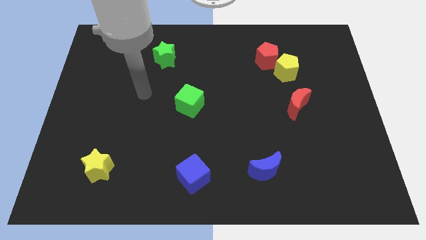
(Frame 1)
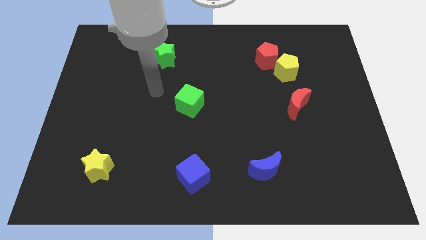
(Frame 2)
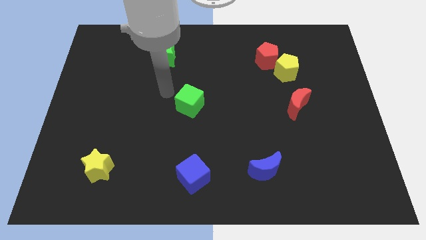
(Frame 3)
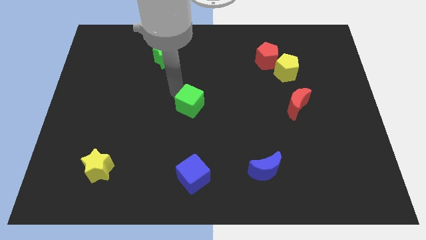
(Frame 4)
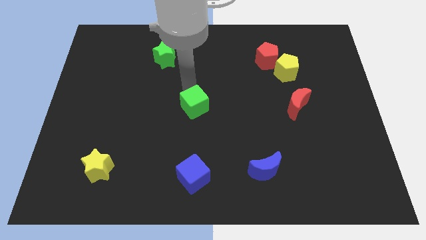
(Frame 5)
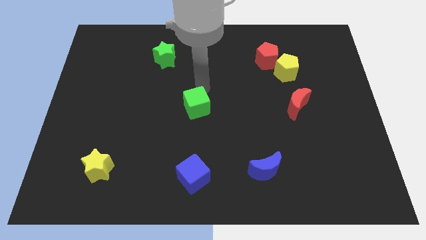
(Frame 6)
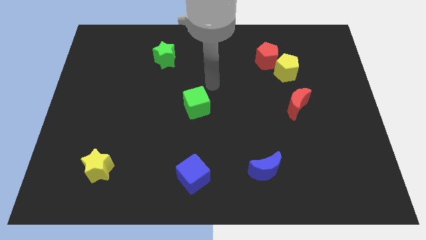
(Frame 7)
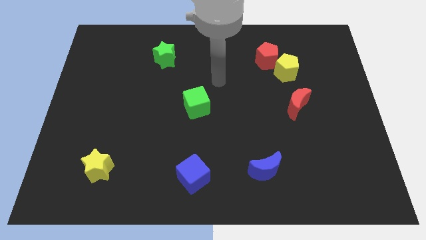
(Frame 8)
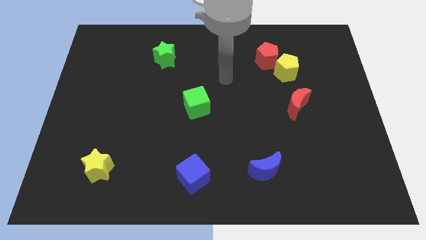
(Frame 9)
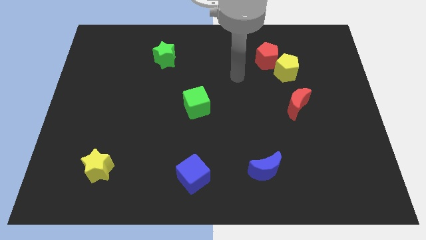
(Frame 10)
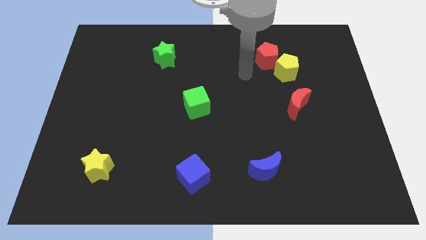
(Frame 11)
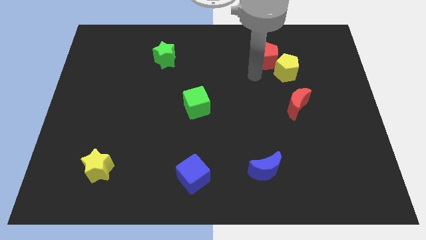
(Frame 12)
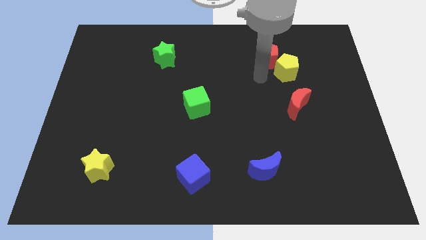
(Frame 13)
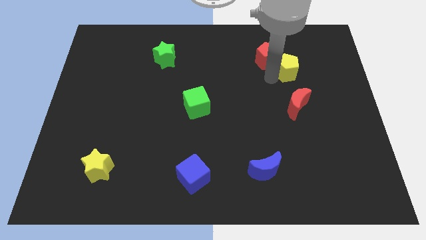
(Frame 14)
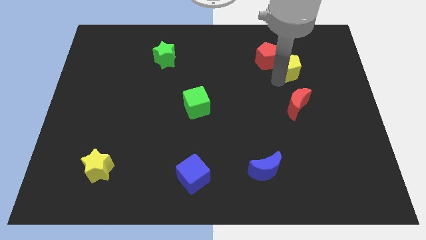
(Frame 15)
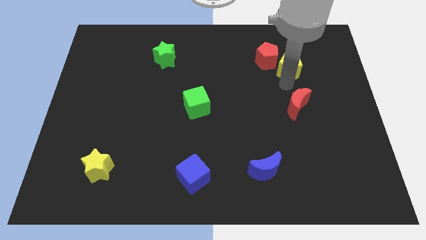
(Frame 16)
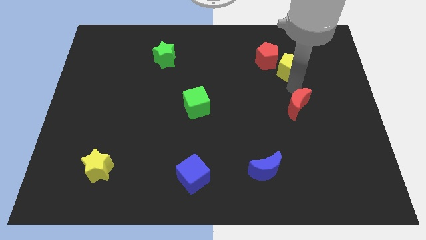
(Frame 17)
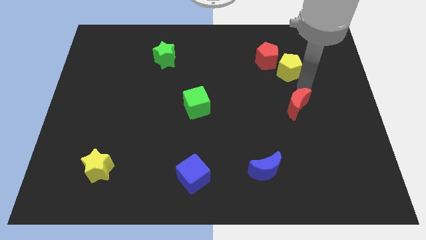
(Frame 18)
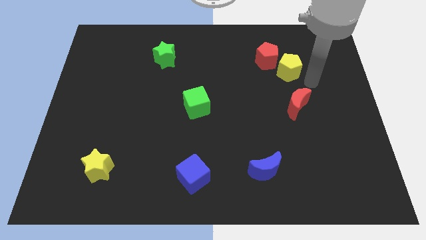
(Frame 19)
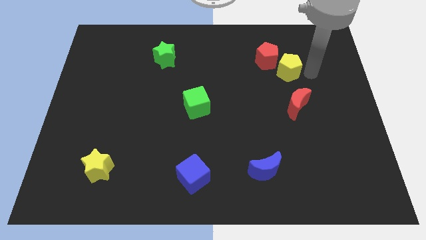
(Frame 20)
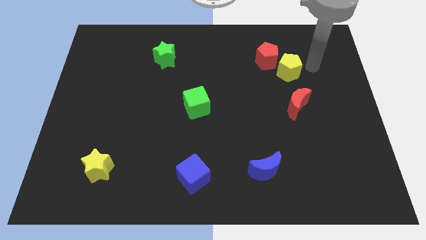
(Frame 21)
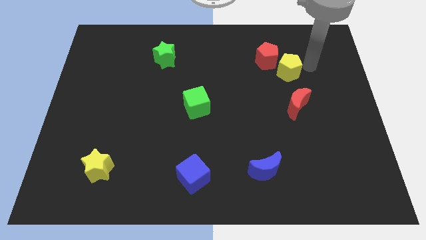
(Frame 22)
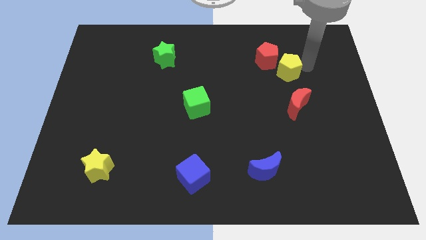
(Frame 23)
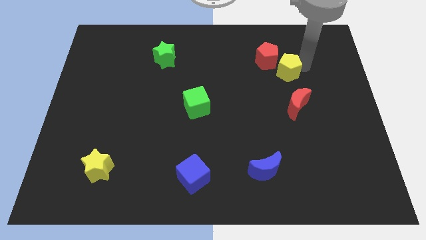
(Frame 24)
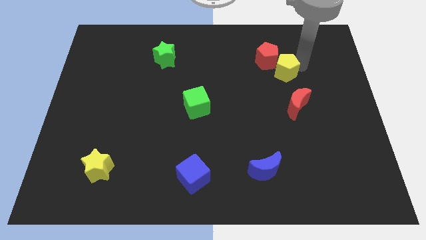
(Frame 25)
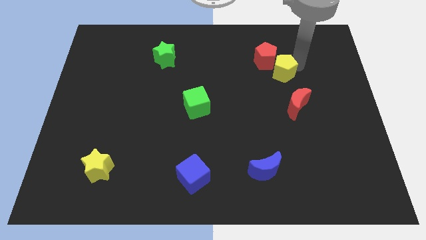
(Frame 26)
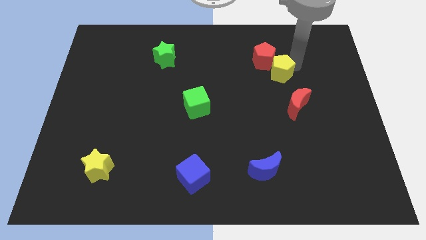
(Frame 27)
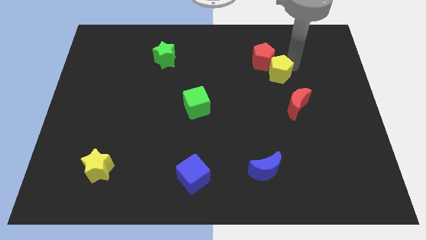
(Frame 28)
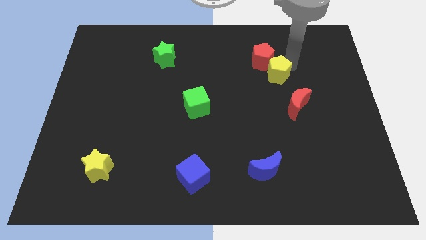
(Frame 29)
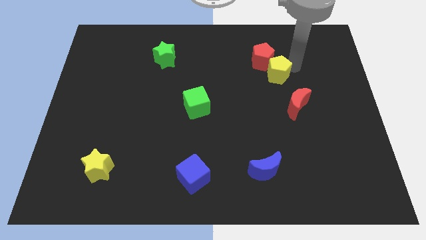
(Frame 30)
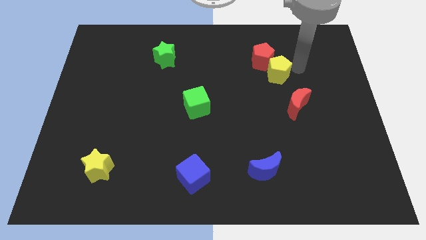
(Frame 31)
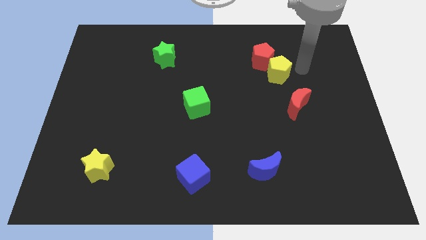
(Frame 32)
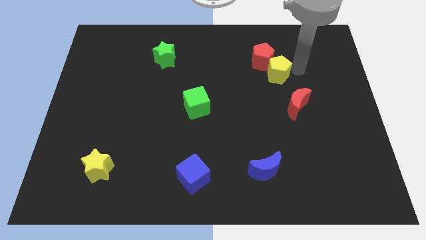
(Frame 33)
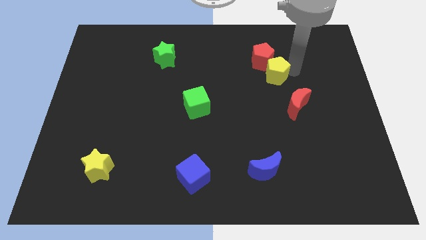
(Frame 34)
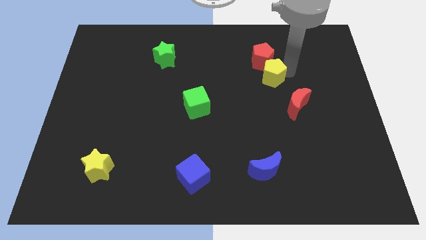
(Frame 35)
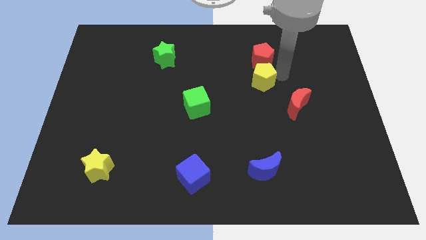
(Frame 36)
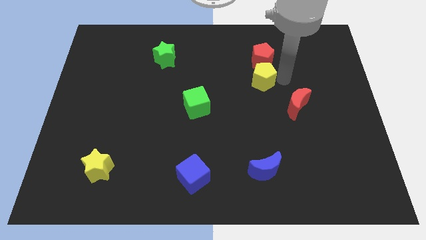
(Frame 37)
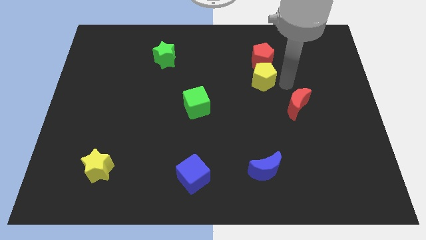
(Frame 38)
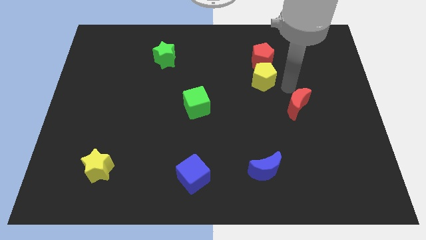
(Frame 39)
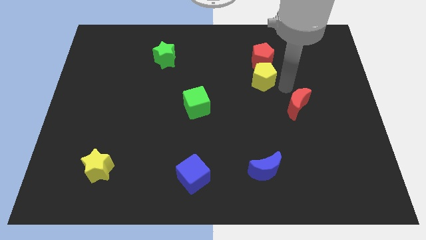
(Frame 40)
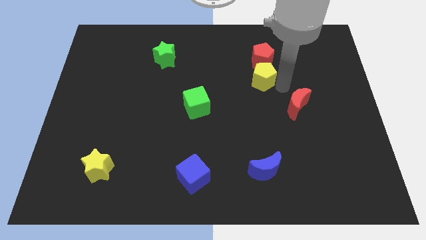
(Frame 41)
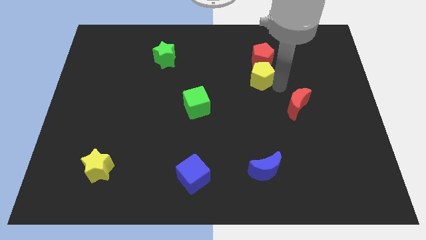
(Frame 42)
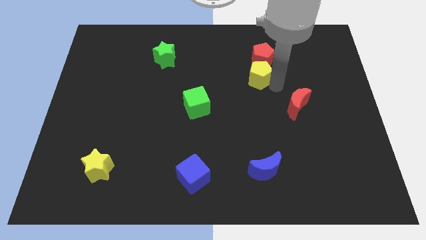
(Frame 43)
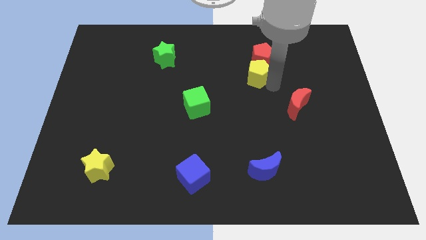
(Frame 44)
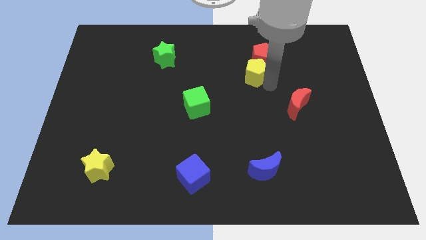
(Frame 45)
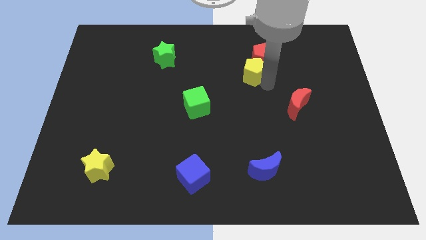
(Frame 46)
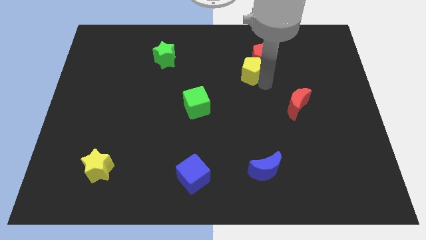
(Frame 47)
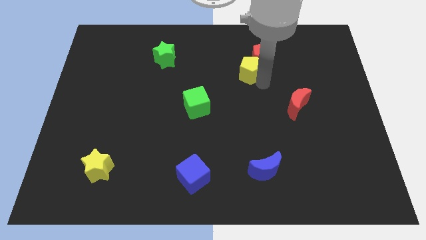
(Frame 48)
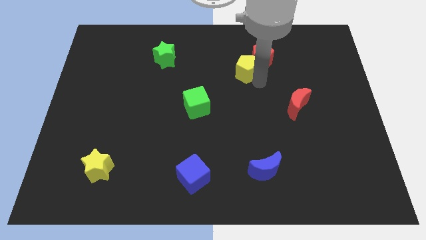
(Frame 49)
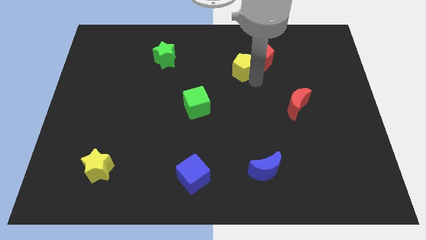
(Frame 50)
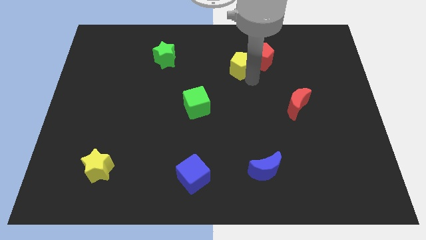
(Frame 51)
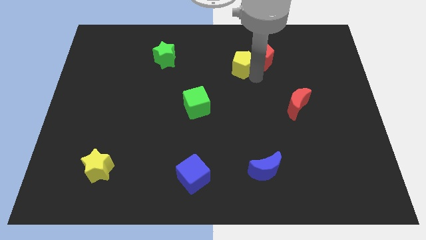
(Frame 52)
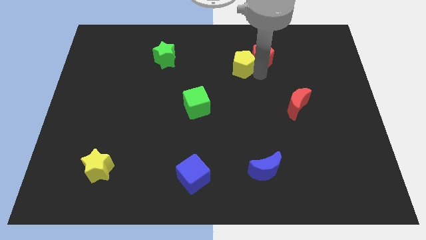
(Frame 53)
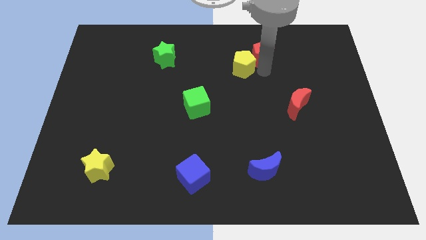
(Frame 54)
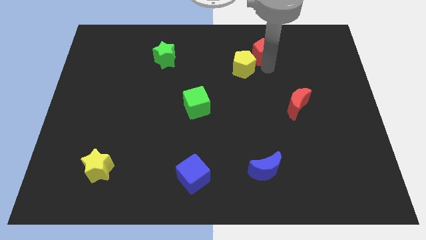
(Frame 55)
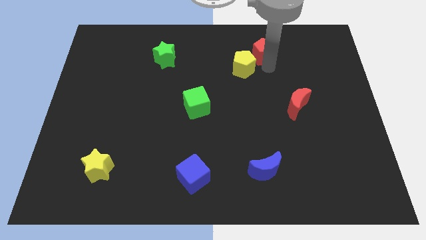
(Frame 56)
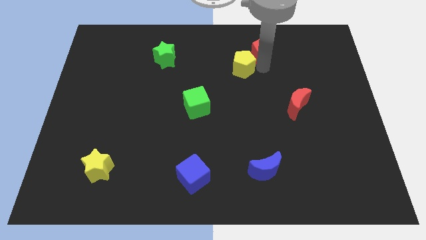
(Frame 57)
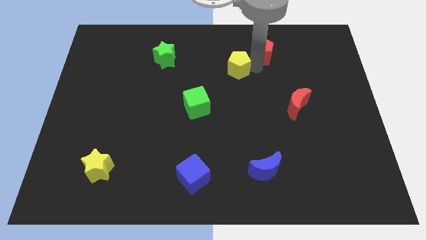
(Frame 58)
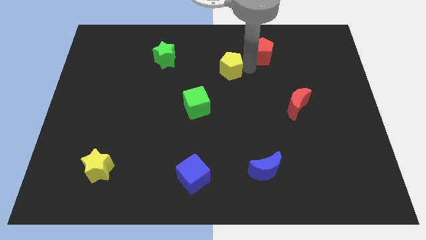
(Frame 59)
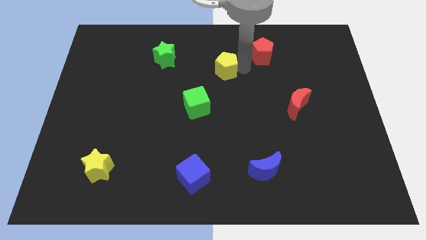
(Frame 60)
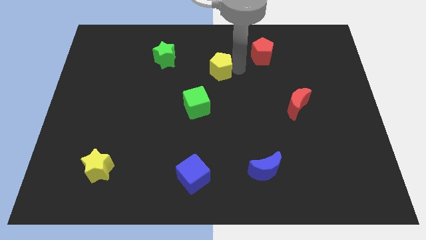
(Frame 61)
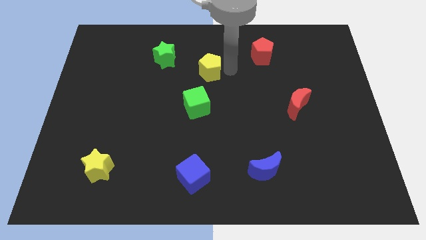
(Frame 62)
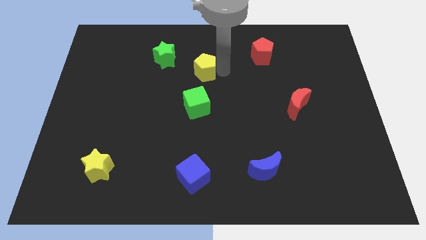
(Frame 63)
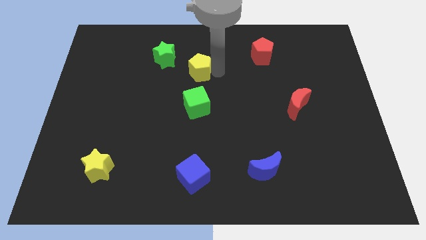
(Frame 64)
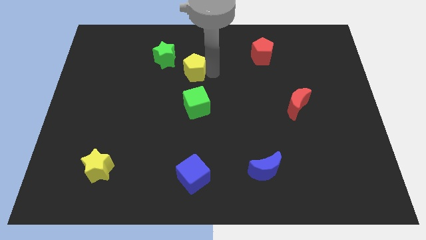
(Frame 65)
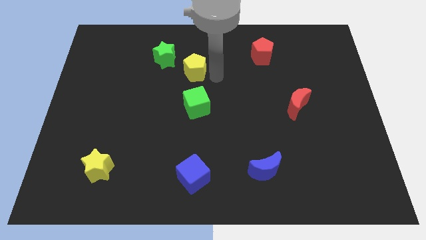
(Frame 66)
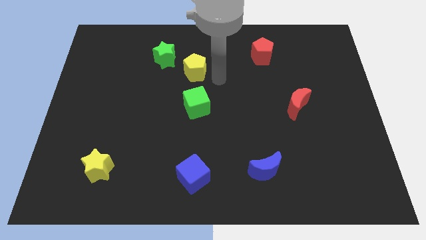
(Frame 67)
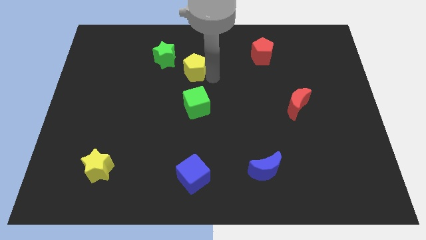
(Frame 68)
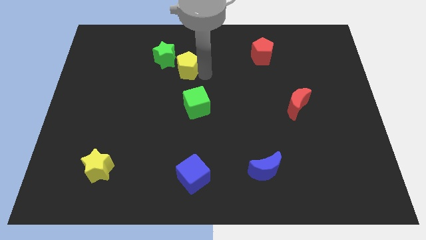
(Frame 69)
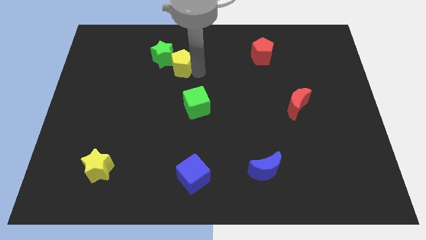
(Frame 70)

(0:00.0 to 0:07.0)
move the yellow pentagon to the green star
